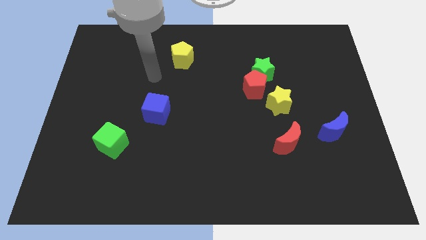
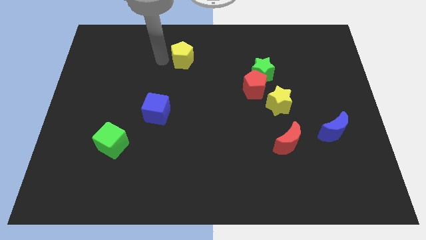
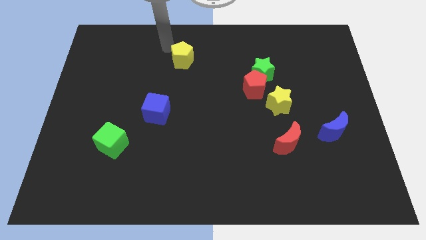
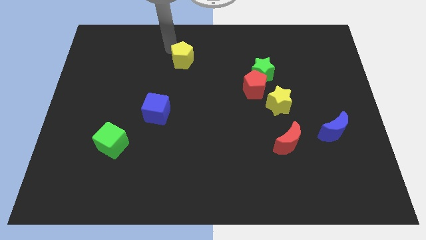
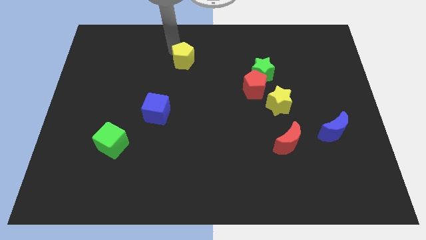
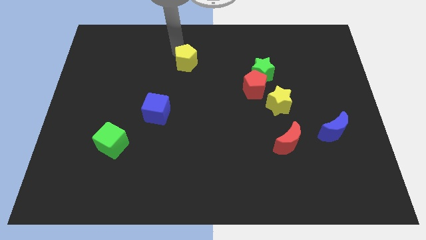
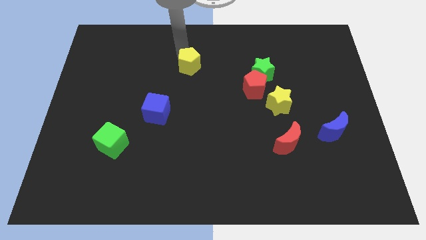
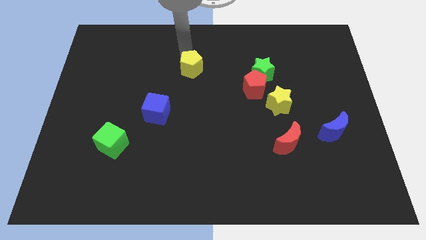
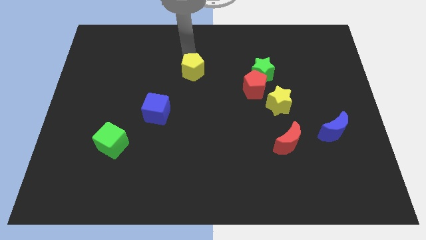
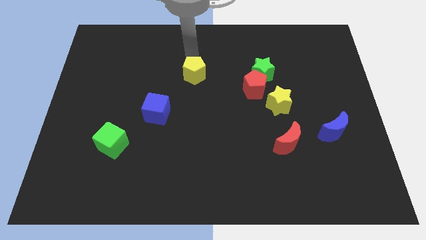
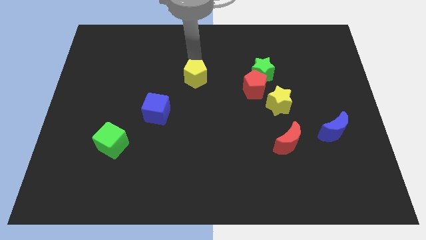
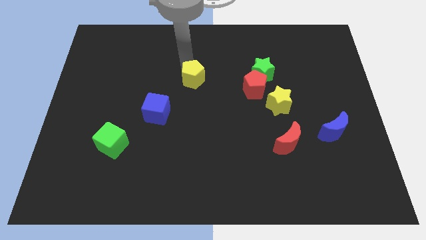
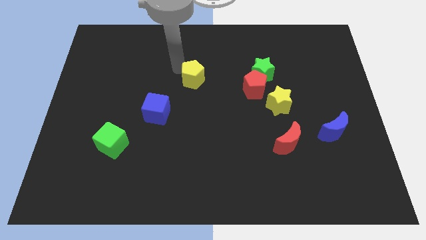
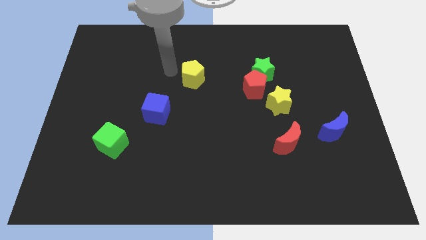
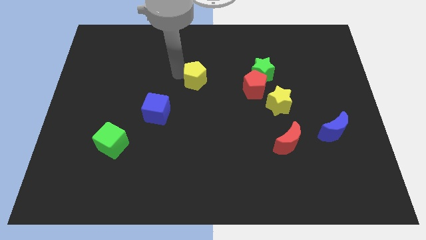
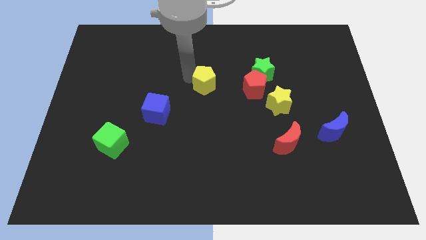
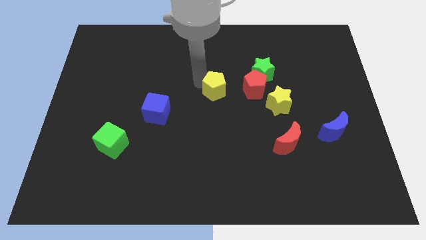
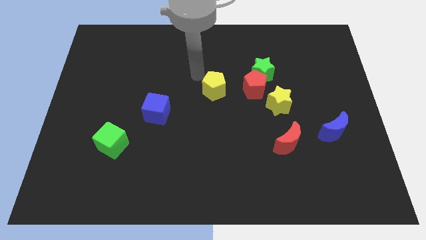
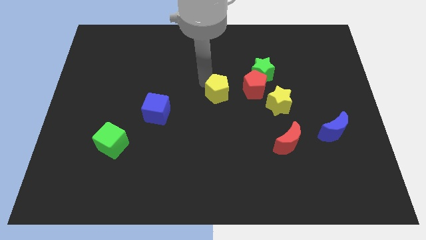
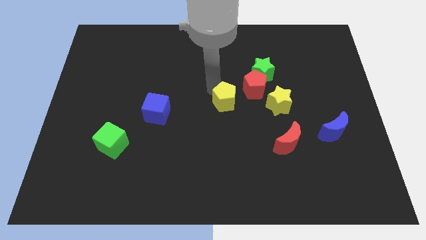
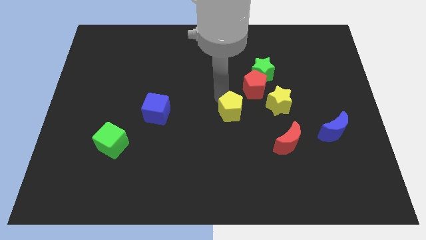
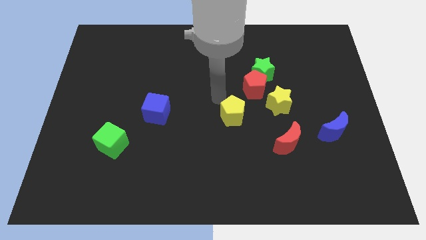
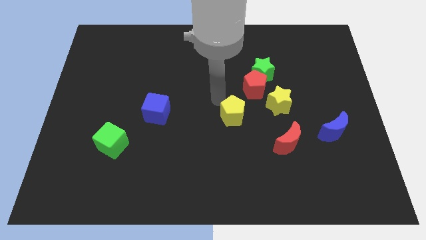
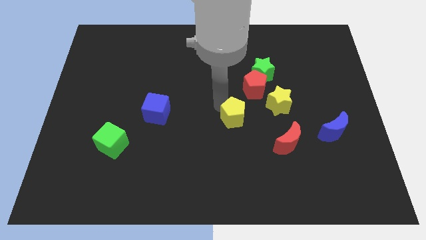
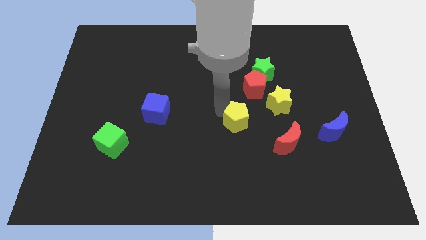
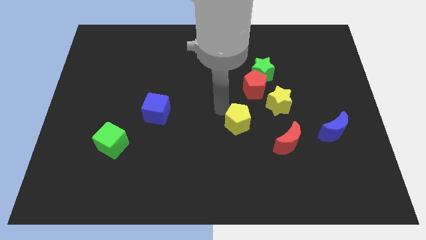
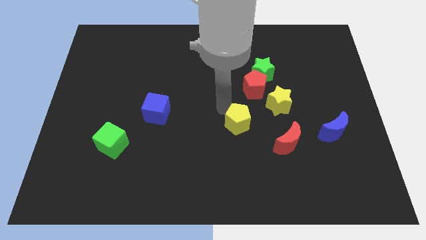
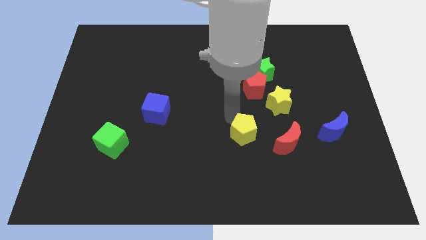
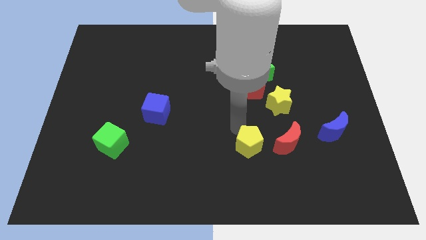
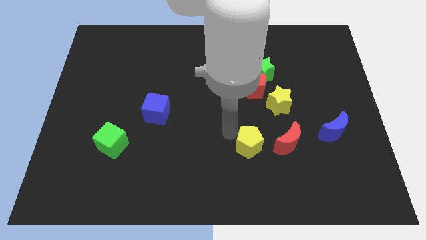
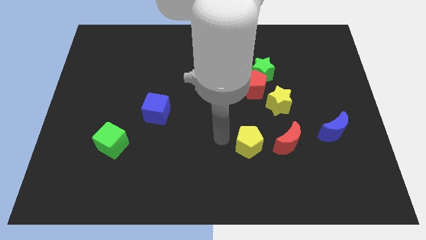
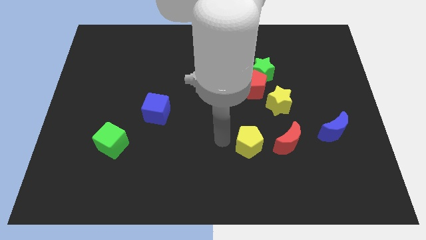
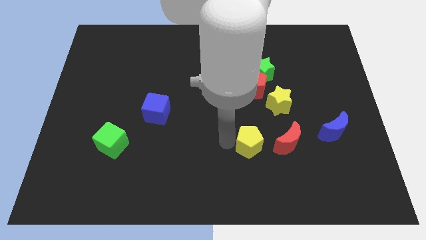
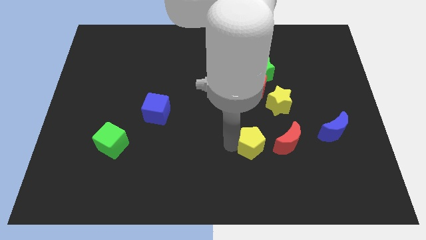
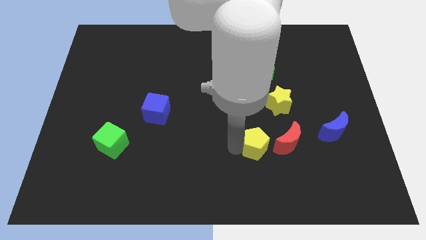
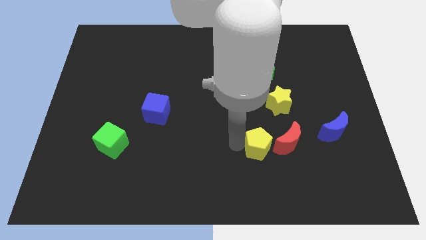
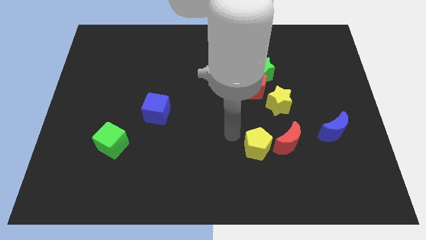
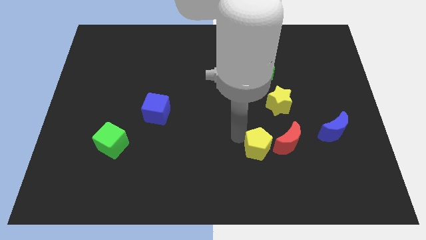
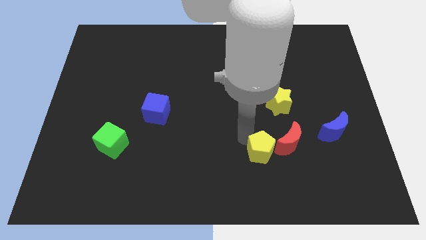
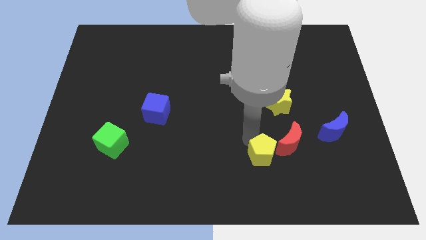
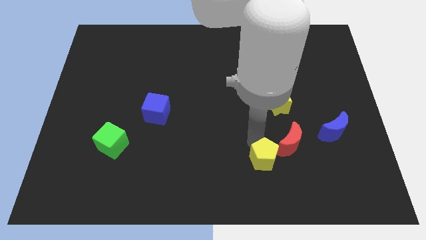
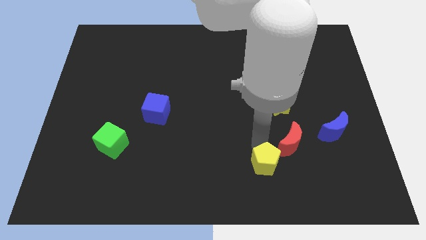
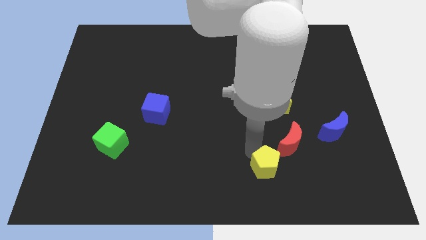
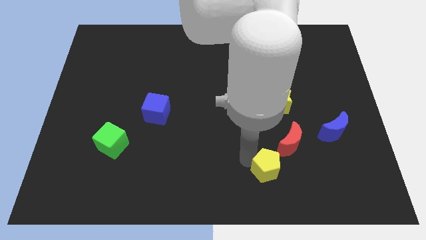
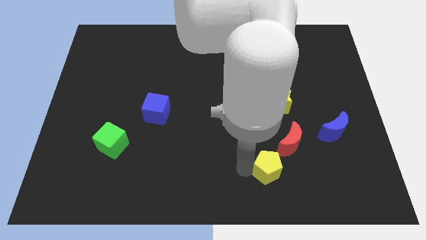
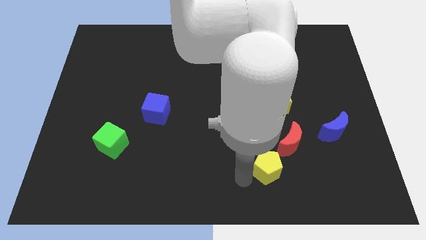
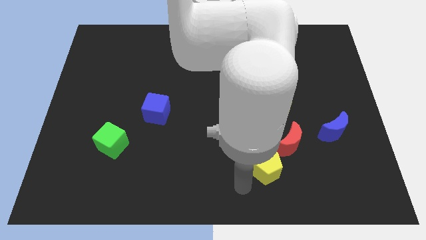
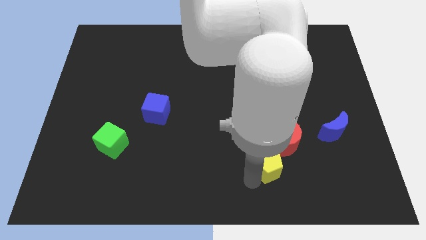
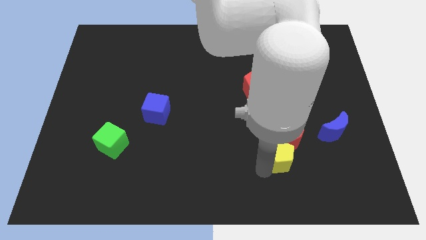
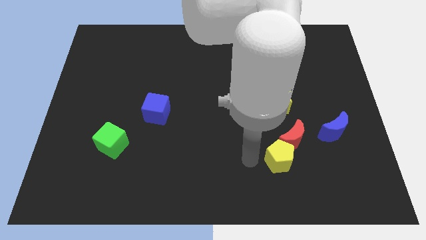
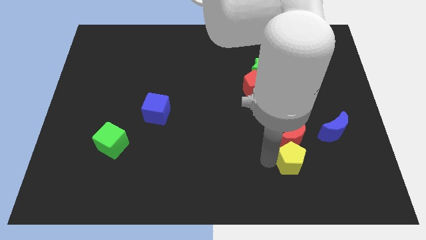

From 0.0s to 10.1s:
push the yellow pentagon to the bottom right of the red moon

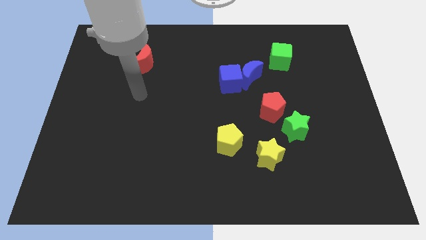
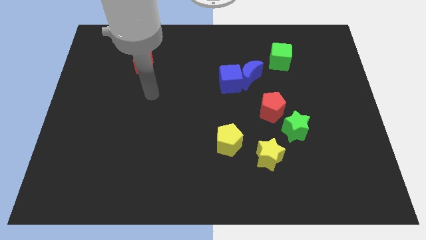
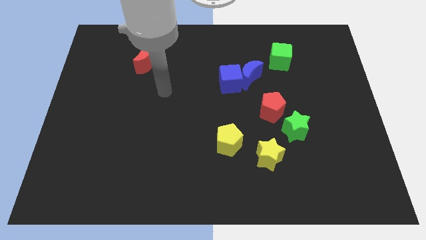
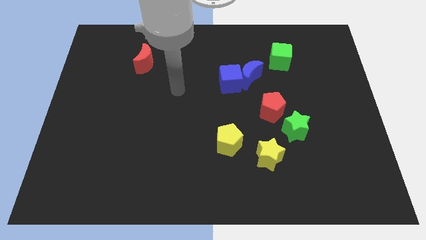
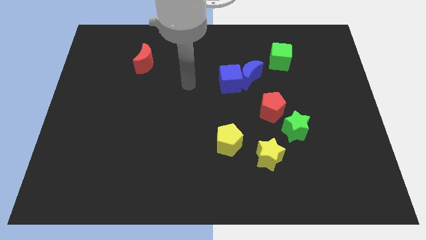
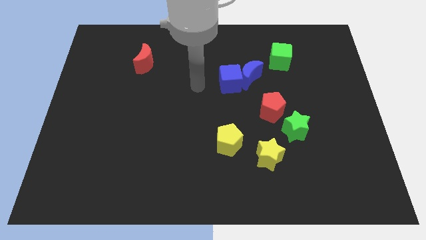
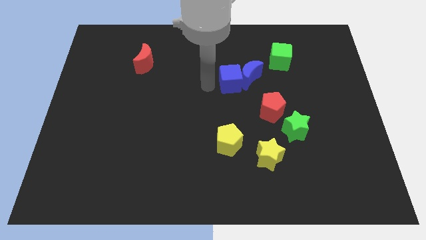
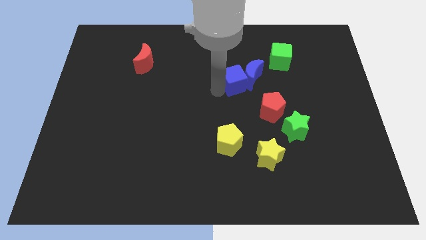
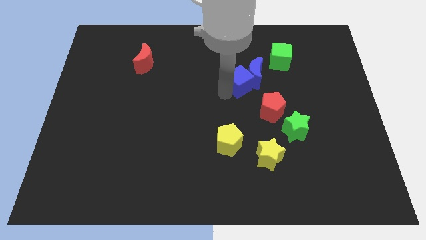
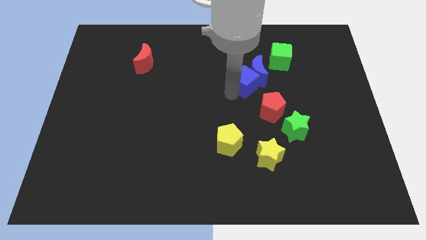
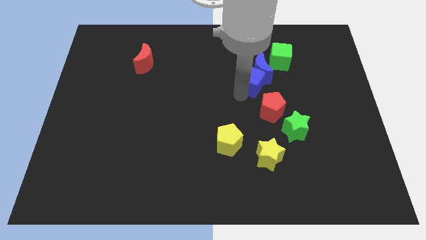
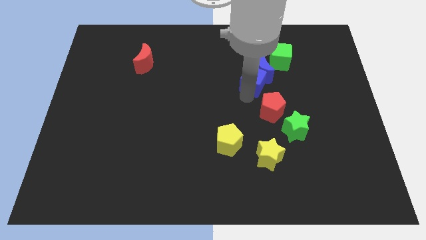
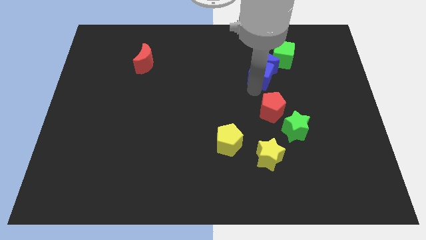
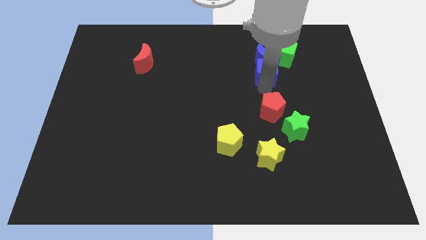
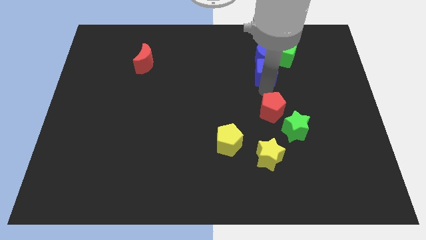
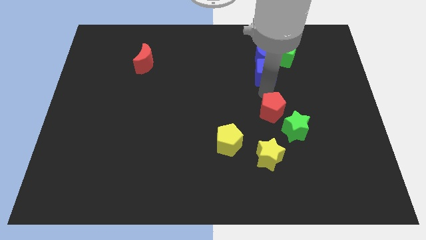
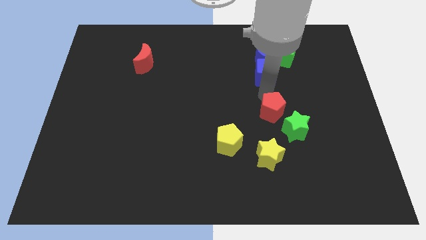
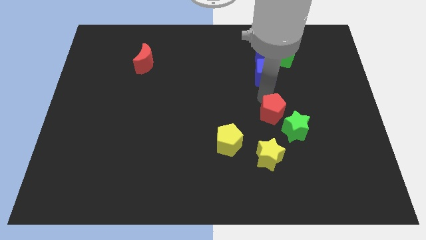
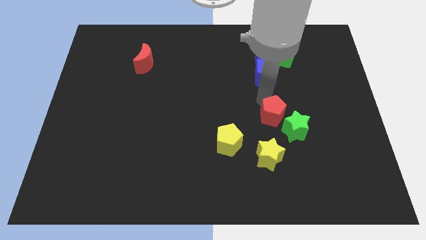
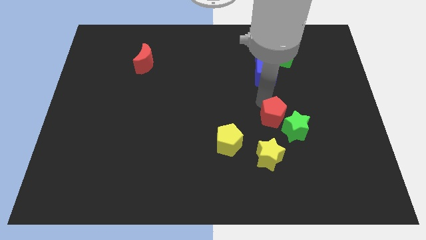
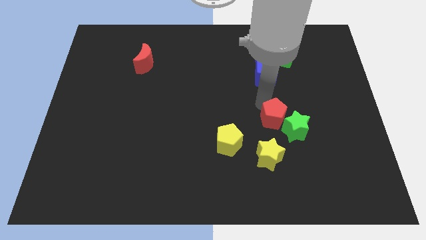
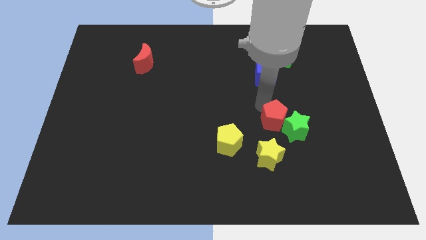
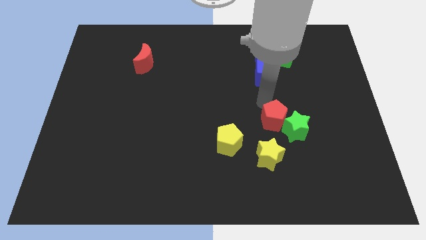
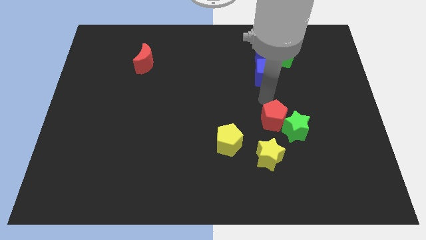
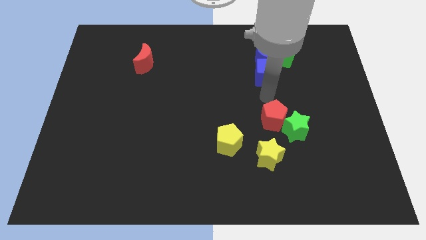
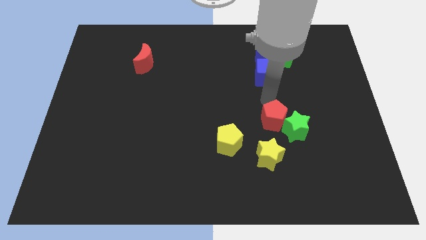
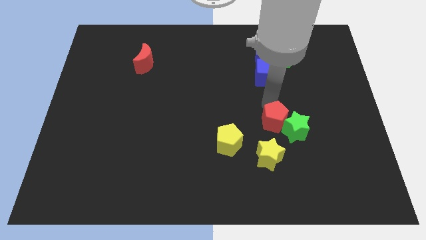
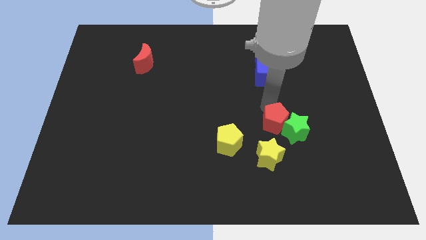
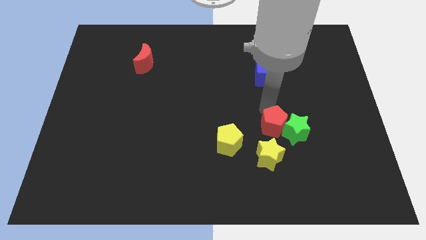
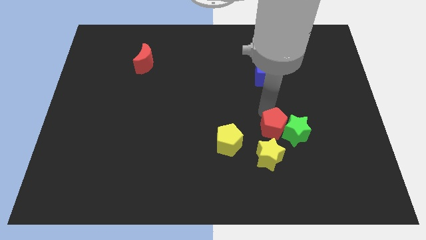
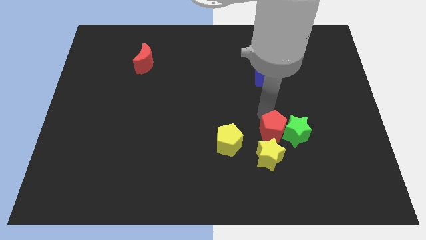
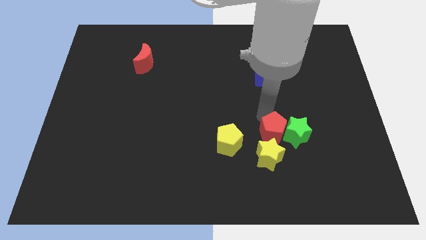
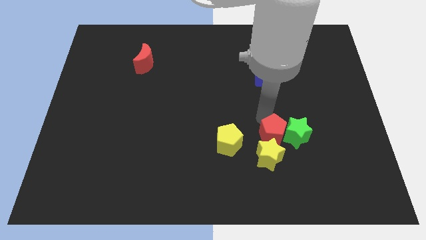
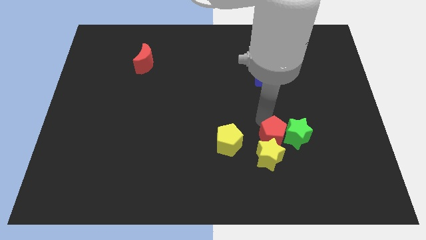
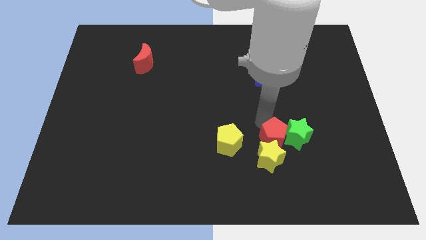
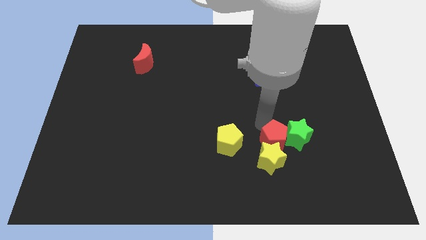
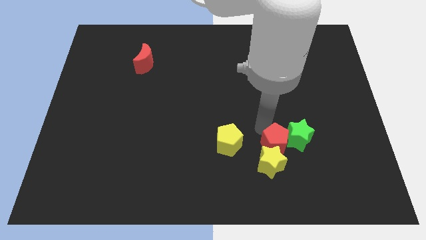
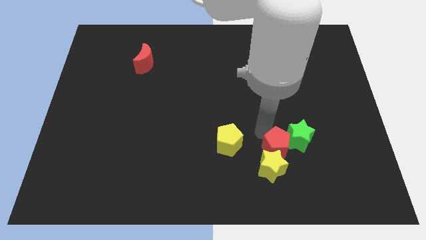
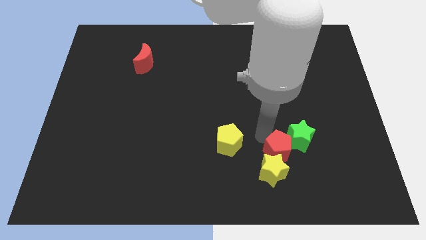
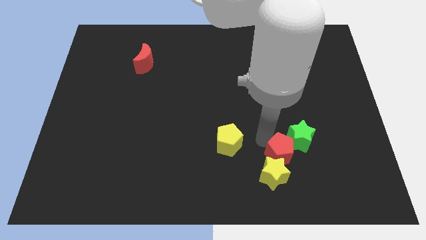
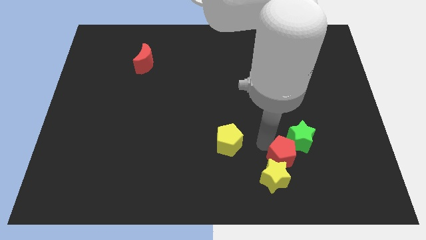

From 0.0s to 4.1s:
push the red pentagon to the bottom side of the green star
